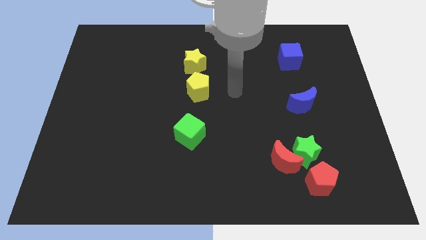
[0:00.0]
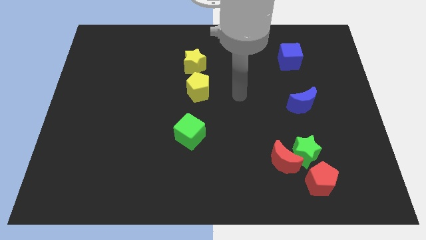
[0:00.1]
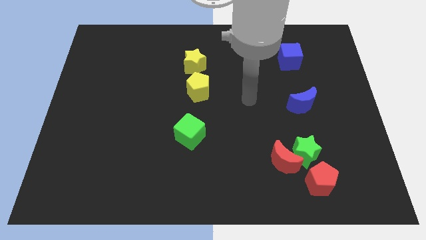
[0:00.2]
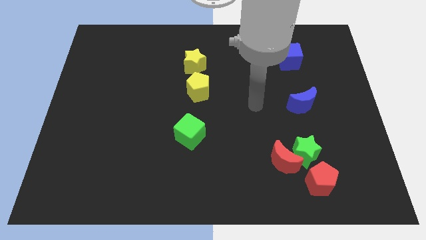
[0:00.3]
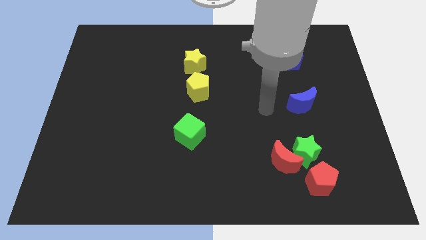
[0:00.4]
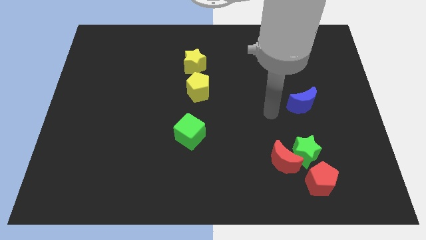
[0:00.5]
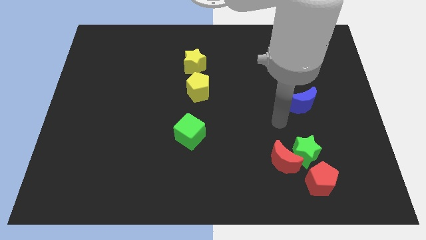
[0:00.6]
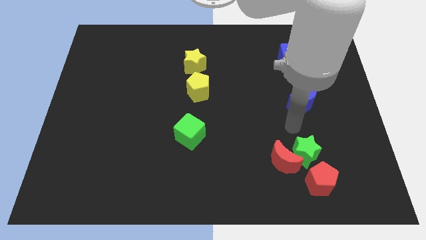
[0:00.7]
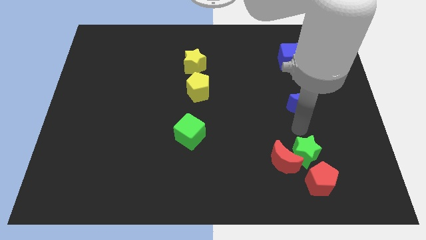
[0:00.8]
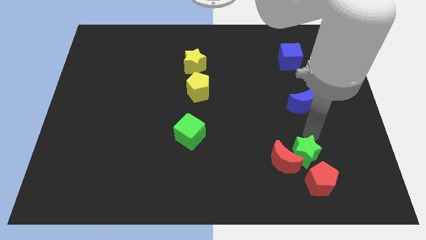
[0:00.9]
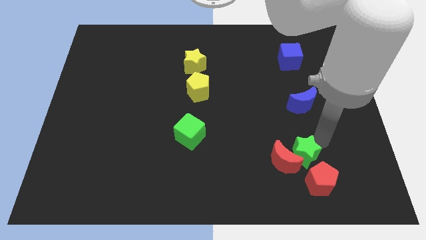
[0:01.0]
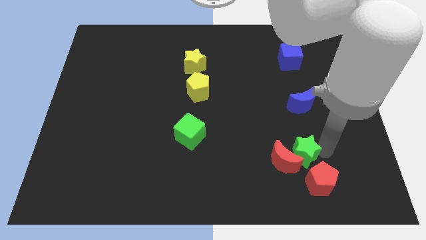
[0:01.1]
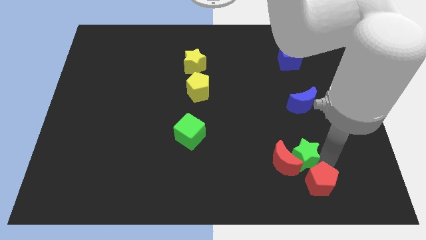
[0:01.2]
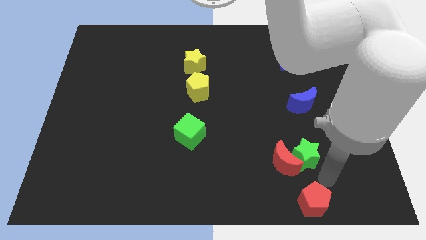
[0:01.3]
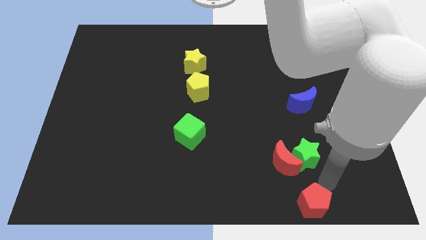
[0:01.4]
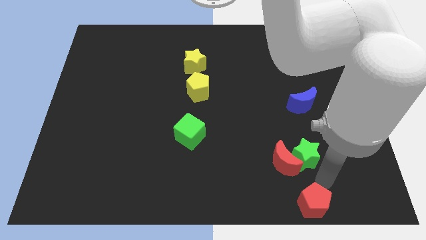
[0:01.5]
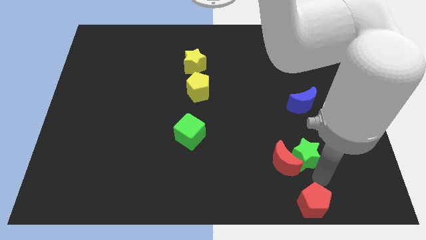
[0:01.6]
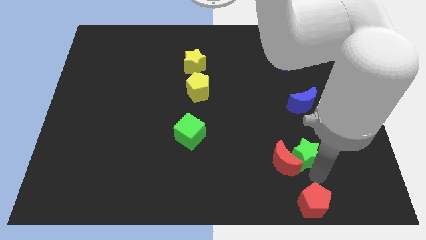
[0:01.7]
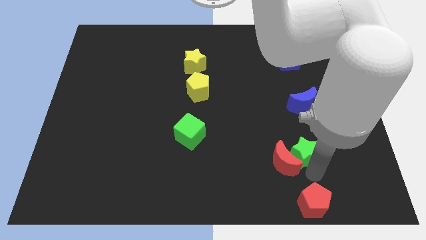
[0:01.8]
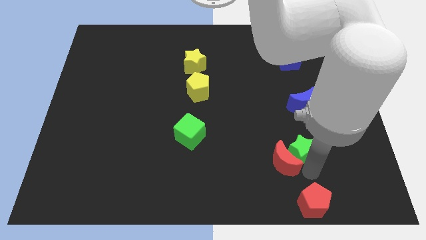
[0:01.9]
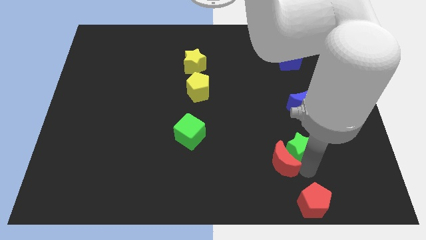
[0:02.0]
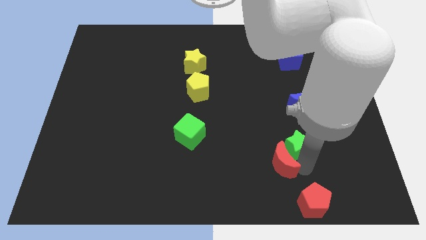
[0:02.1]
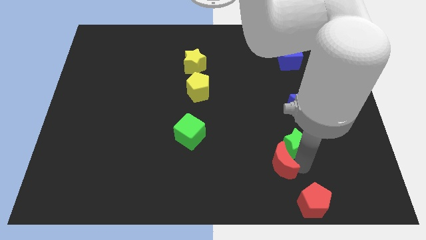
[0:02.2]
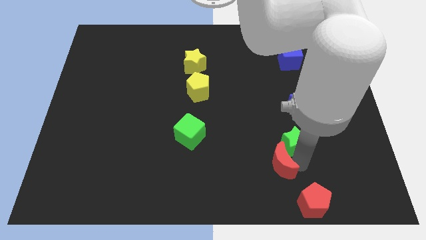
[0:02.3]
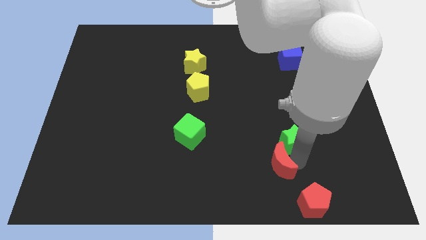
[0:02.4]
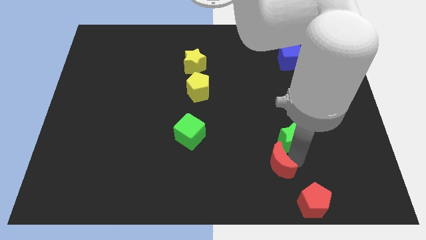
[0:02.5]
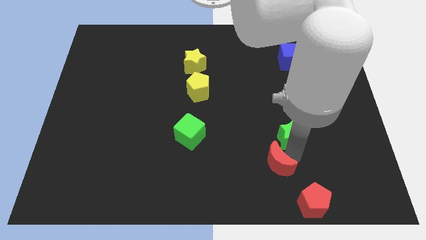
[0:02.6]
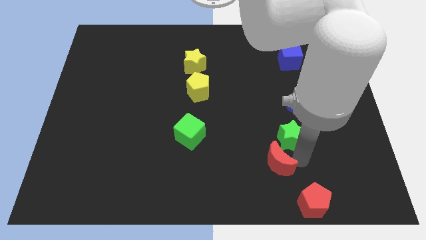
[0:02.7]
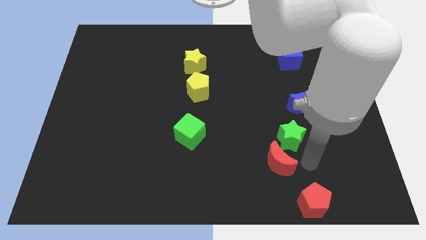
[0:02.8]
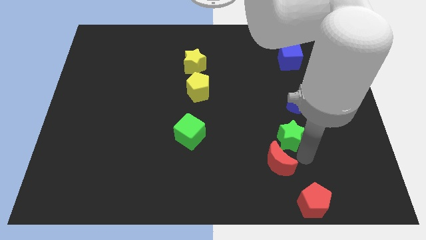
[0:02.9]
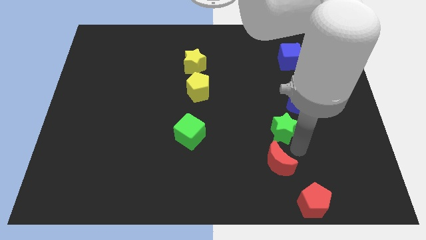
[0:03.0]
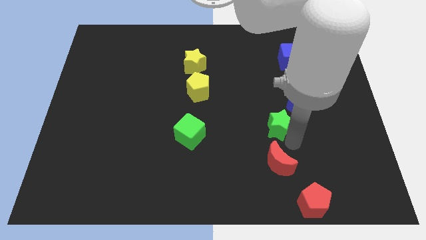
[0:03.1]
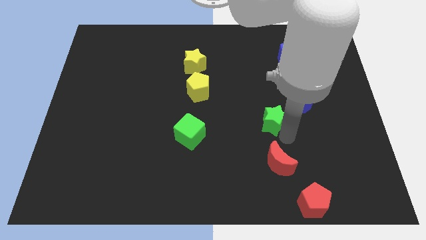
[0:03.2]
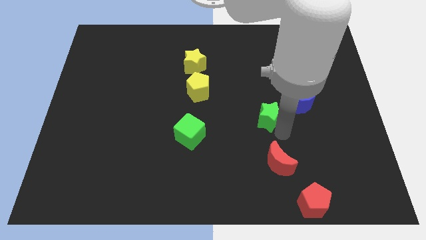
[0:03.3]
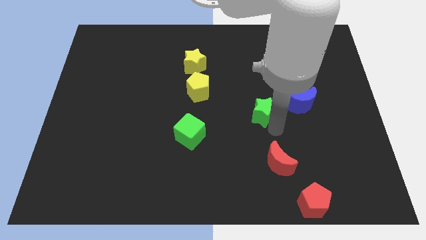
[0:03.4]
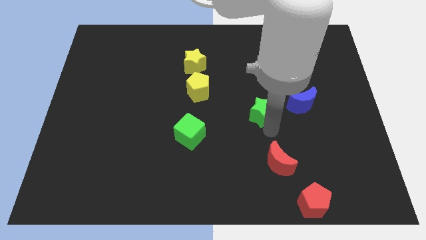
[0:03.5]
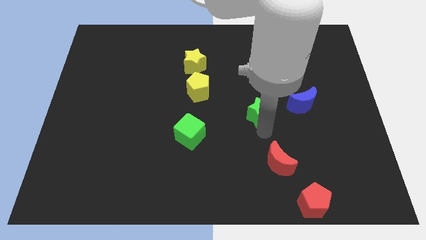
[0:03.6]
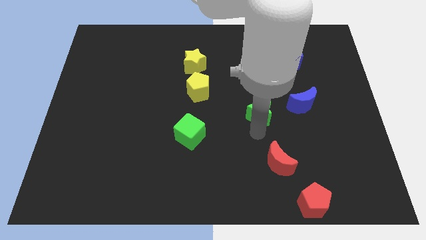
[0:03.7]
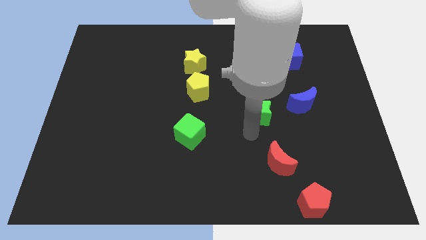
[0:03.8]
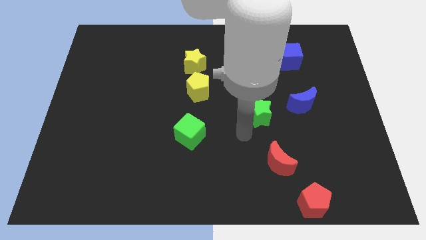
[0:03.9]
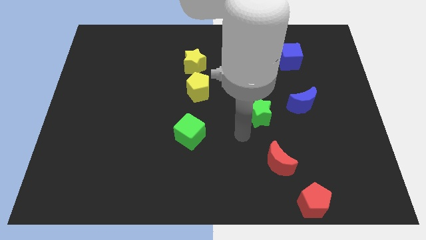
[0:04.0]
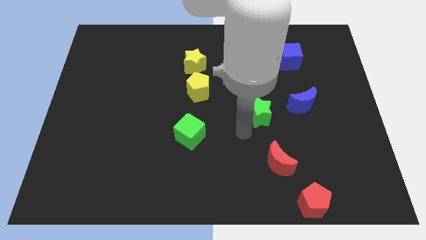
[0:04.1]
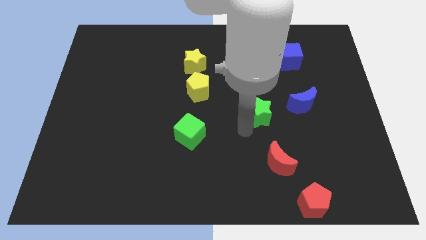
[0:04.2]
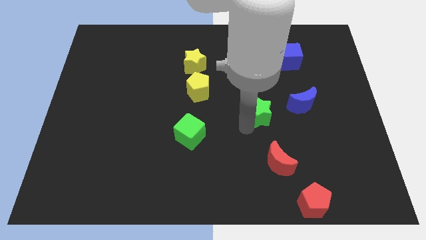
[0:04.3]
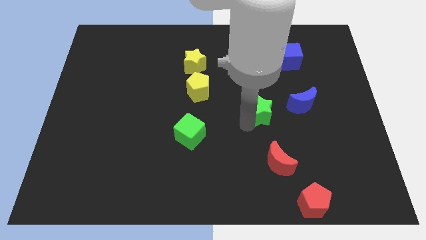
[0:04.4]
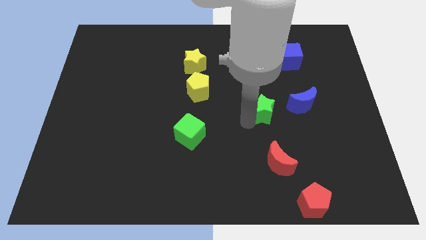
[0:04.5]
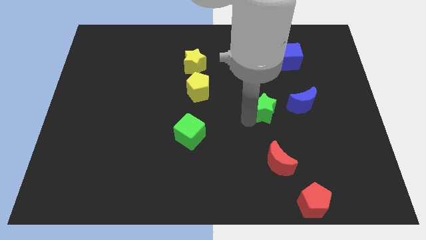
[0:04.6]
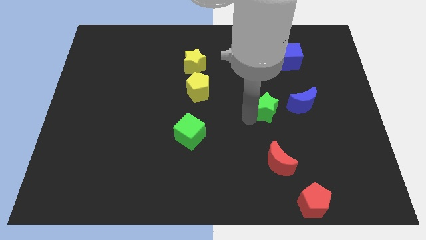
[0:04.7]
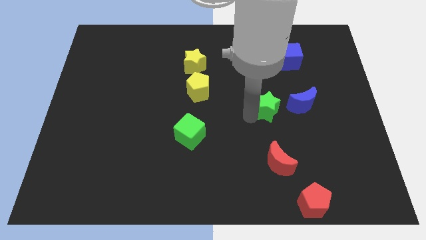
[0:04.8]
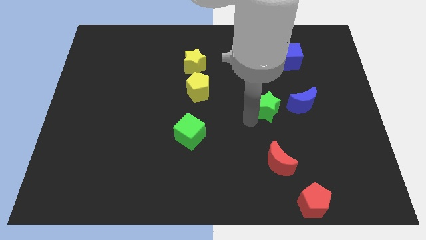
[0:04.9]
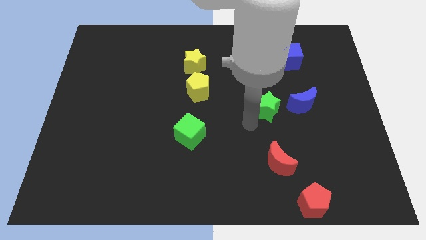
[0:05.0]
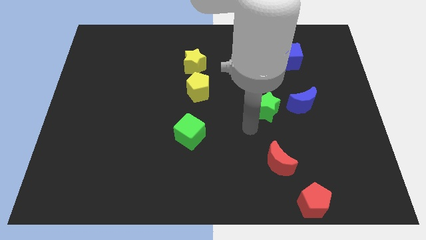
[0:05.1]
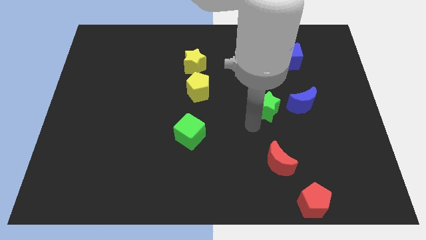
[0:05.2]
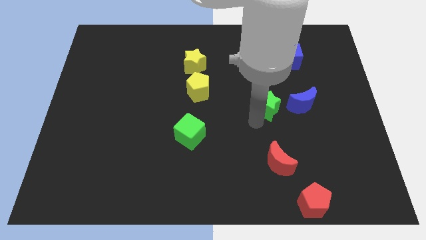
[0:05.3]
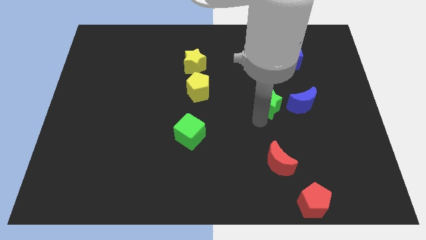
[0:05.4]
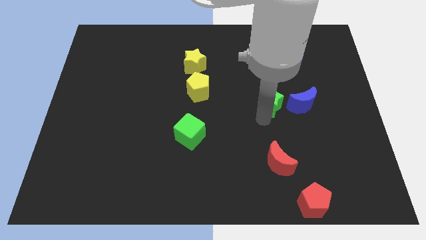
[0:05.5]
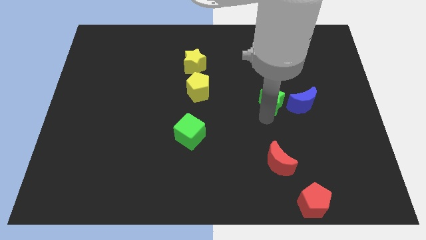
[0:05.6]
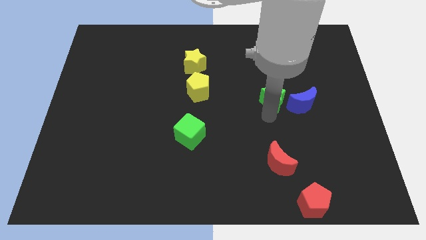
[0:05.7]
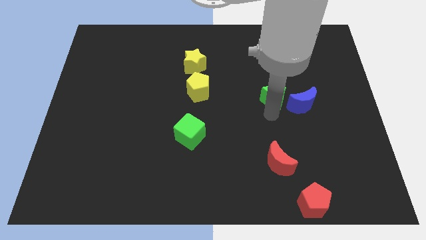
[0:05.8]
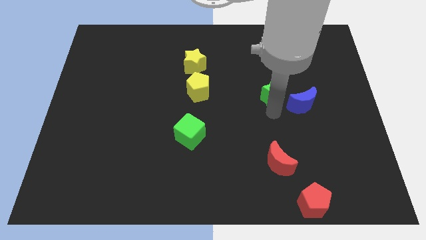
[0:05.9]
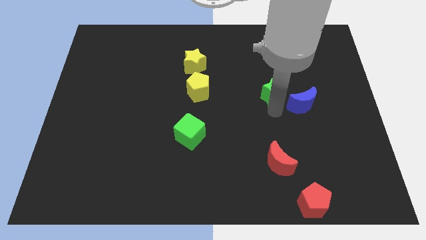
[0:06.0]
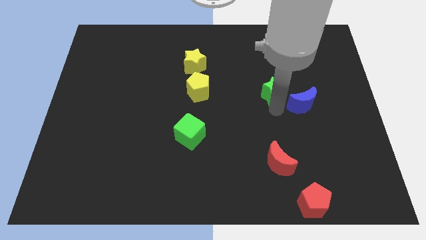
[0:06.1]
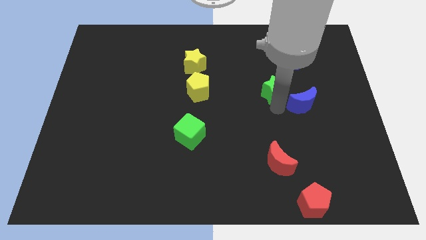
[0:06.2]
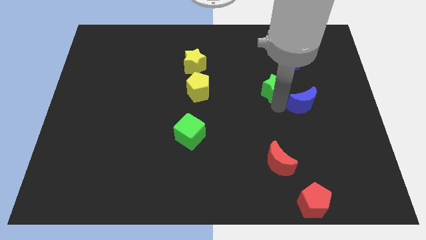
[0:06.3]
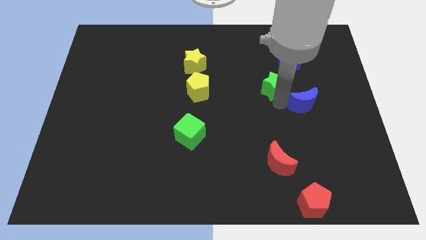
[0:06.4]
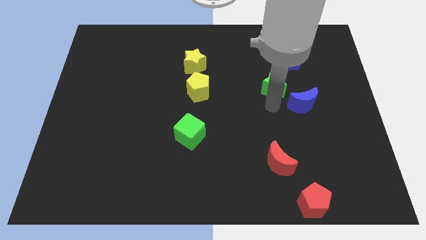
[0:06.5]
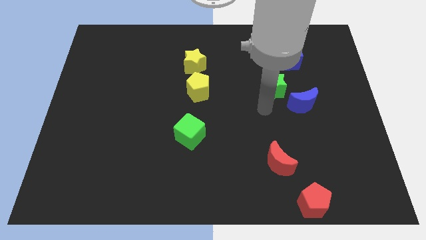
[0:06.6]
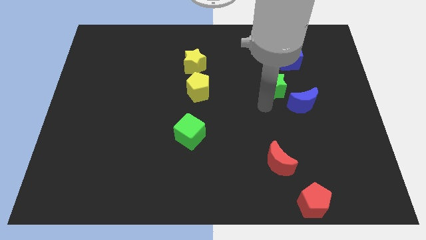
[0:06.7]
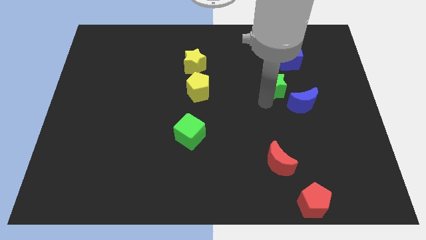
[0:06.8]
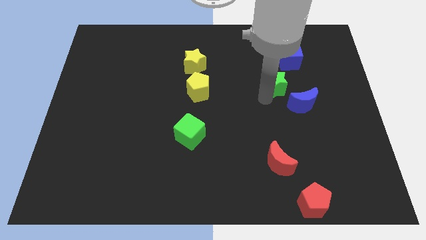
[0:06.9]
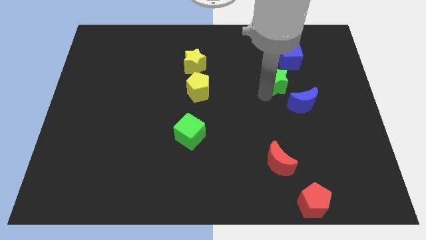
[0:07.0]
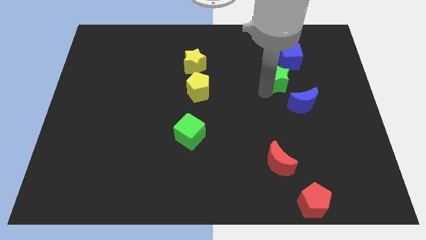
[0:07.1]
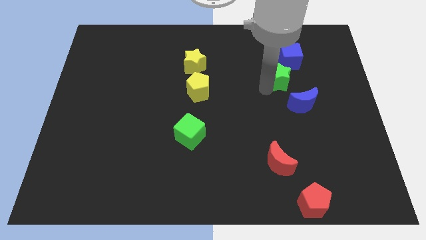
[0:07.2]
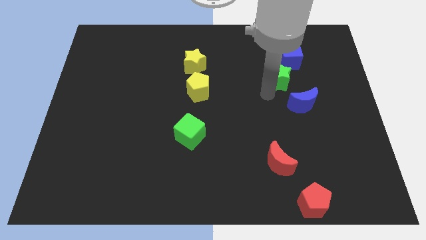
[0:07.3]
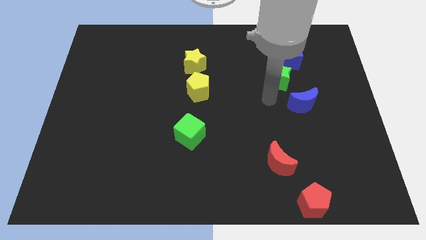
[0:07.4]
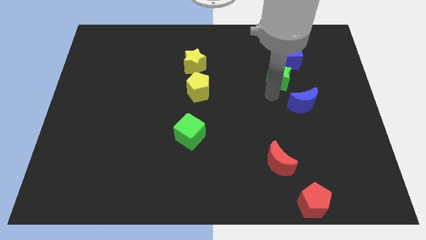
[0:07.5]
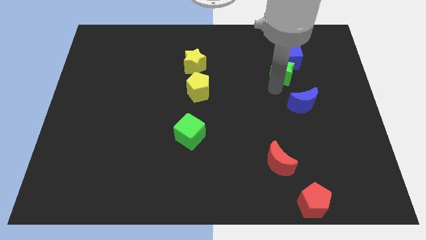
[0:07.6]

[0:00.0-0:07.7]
move the green star close to the blue cube
